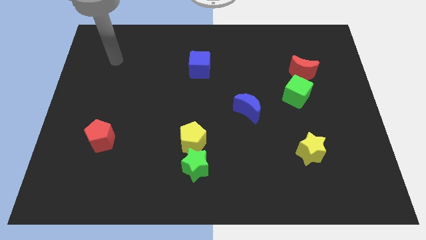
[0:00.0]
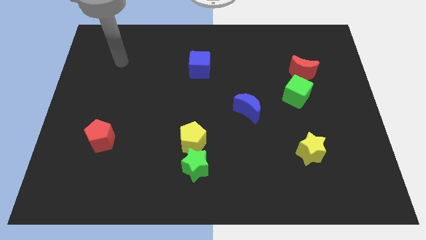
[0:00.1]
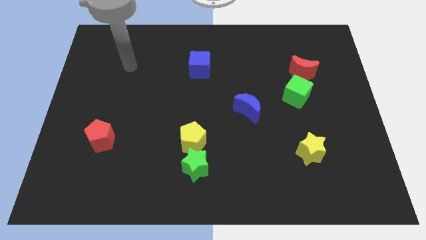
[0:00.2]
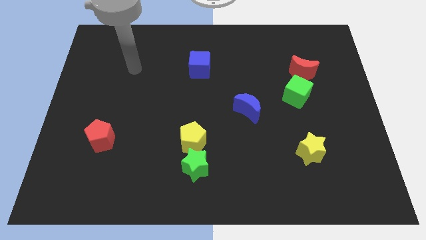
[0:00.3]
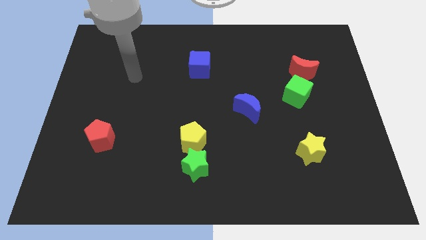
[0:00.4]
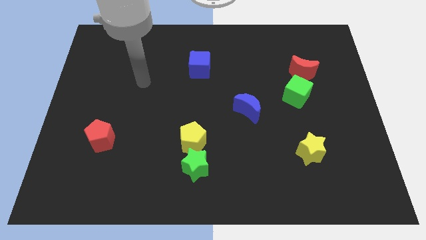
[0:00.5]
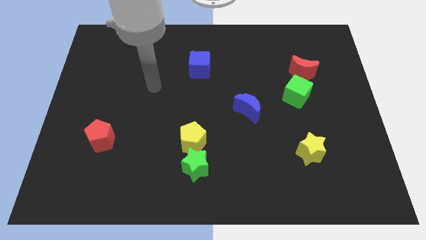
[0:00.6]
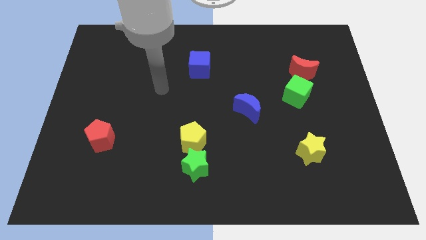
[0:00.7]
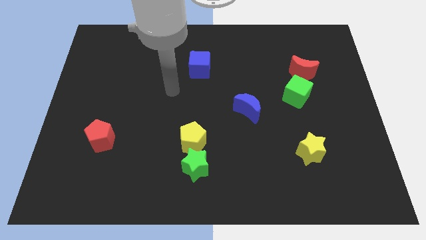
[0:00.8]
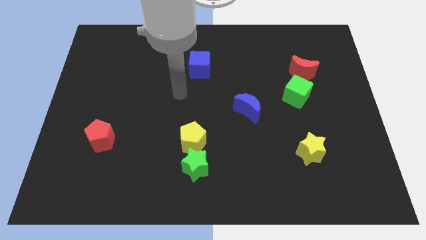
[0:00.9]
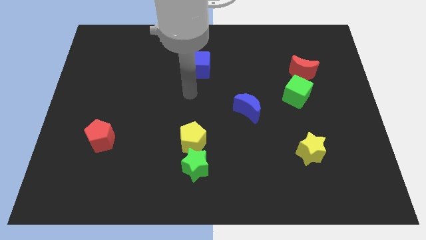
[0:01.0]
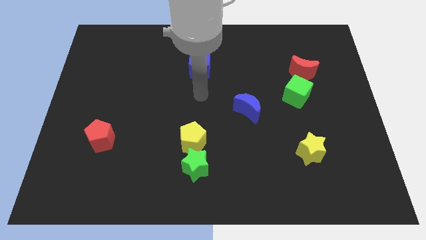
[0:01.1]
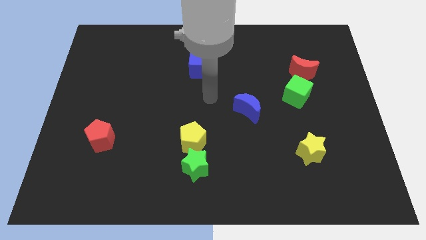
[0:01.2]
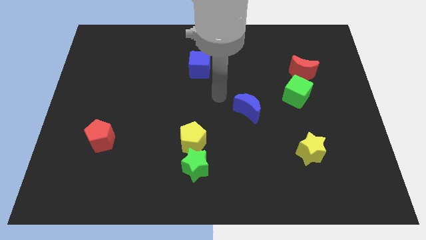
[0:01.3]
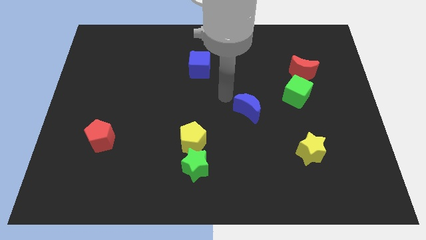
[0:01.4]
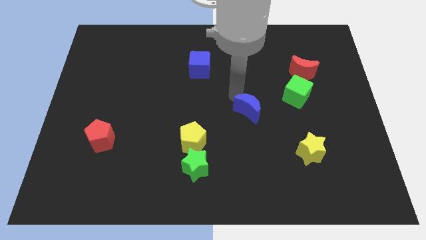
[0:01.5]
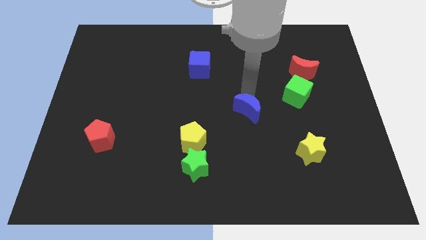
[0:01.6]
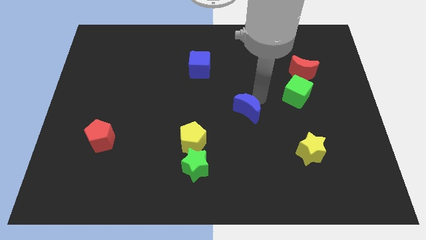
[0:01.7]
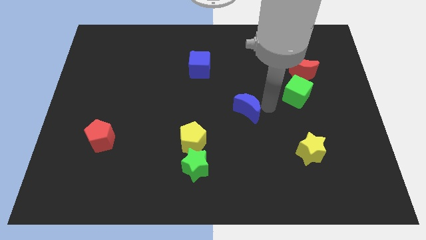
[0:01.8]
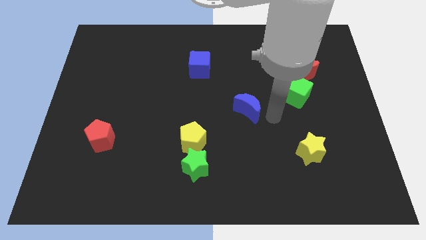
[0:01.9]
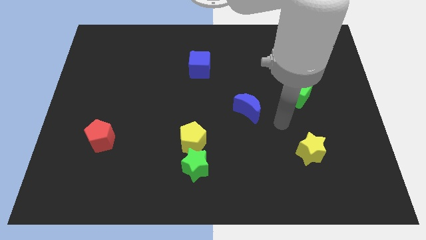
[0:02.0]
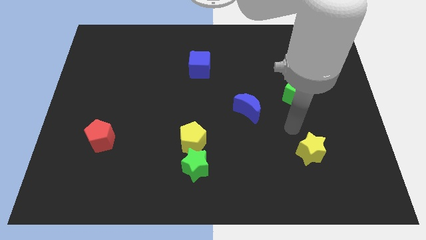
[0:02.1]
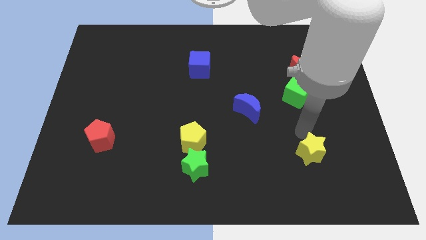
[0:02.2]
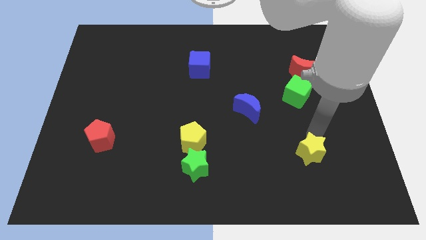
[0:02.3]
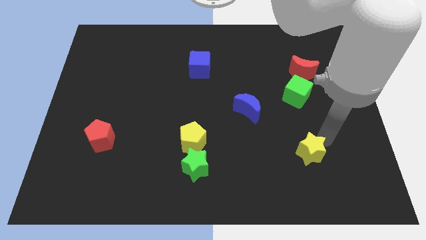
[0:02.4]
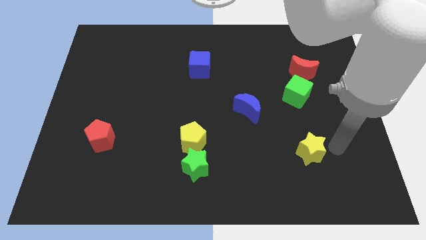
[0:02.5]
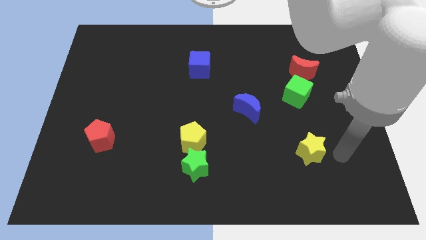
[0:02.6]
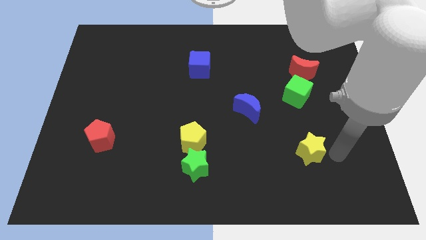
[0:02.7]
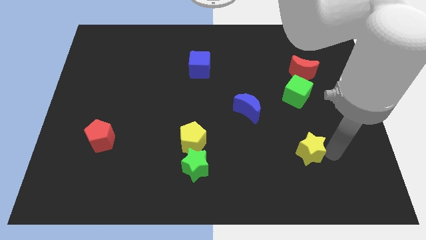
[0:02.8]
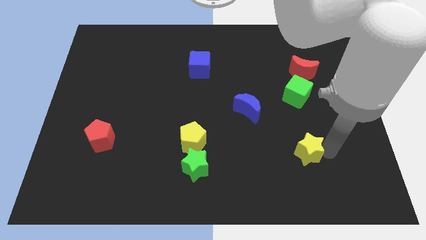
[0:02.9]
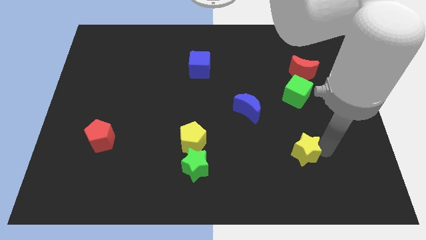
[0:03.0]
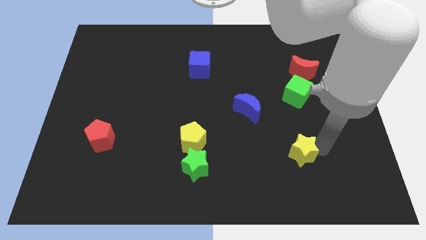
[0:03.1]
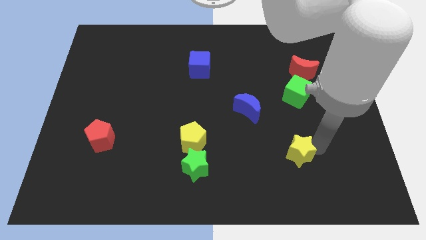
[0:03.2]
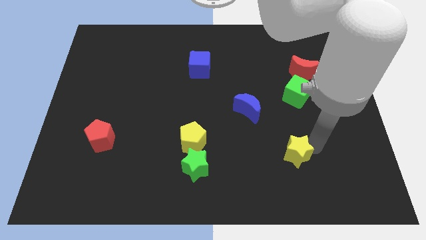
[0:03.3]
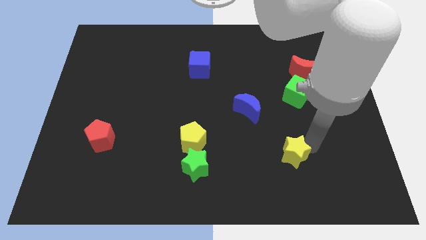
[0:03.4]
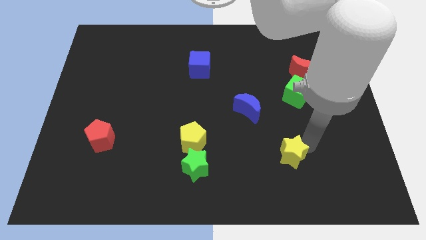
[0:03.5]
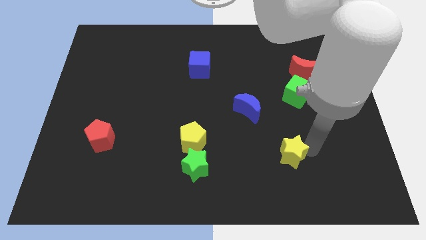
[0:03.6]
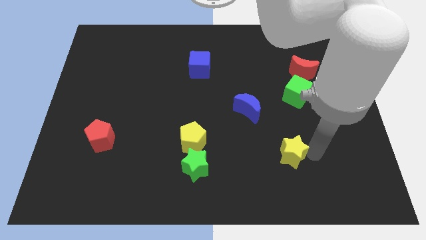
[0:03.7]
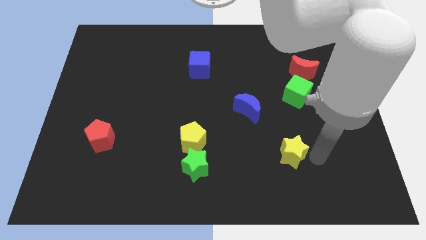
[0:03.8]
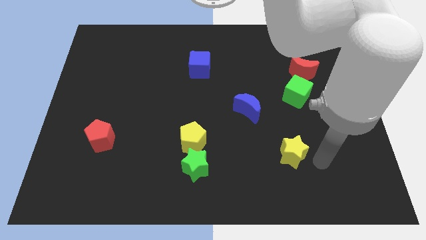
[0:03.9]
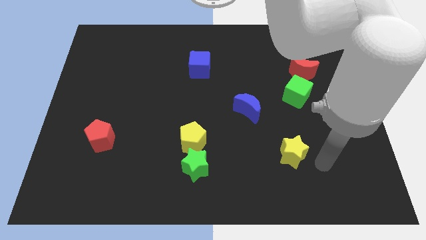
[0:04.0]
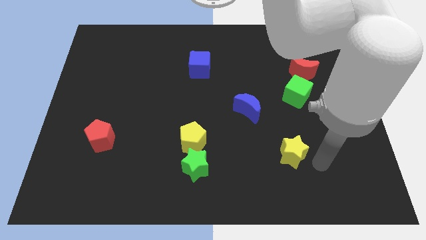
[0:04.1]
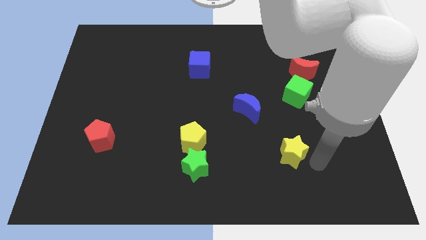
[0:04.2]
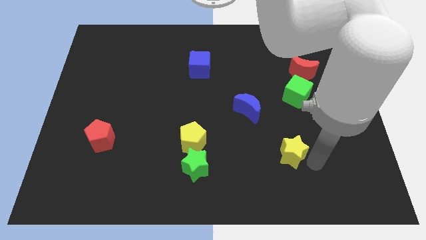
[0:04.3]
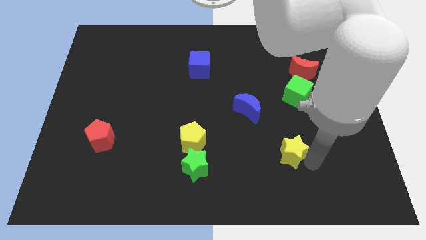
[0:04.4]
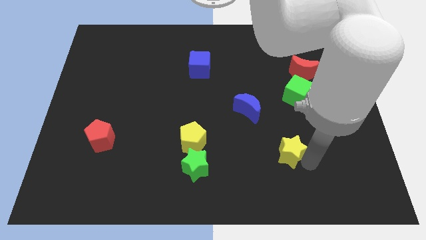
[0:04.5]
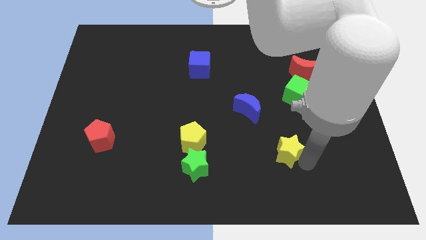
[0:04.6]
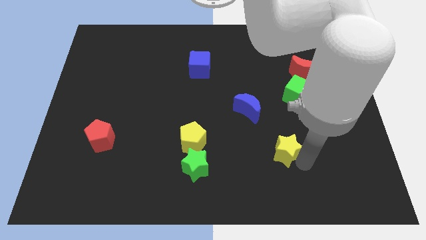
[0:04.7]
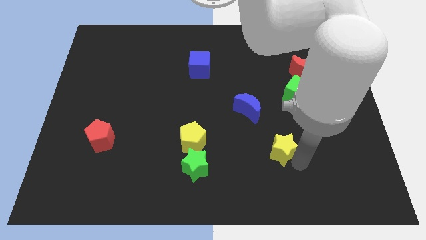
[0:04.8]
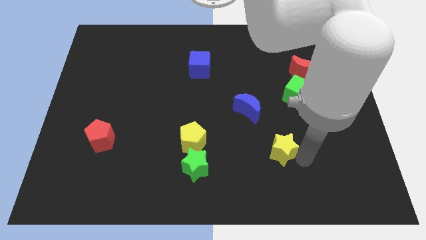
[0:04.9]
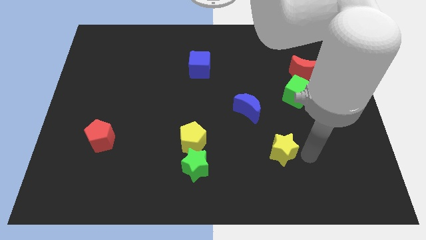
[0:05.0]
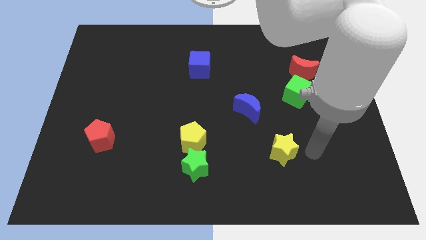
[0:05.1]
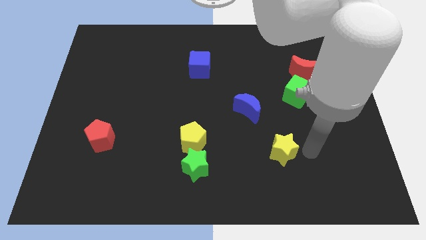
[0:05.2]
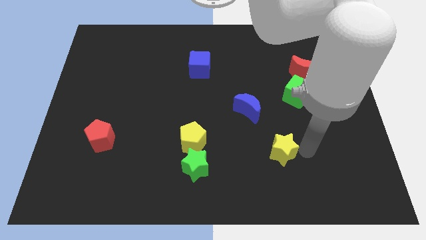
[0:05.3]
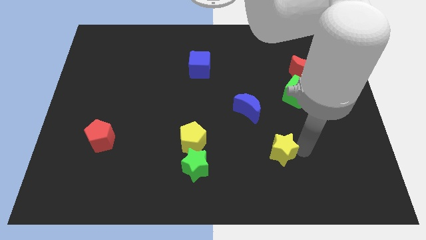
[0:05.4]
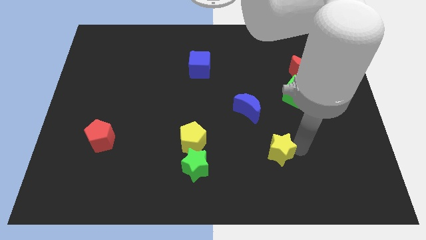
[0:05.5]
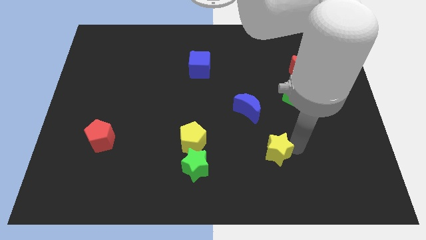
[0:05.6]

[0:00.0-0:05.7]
push the yellow star left slightly

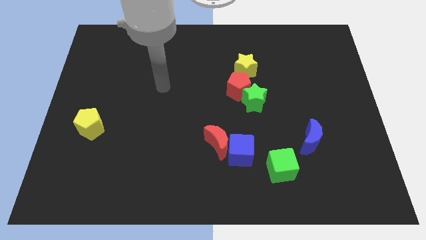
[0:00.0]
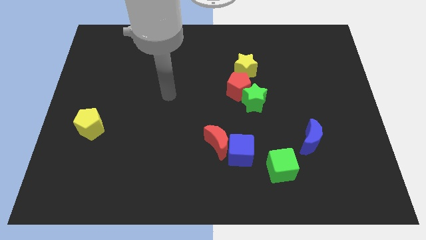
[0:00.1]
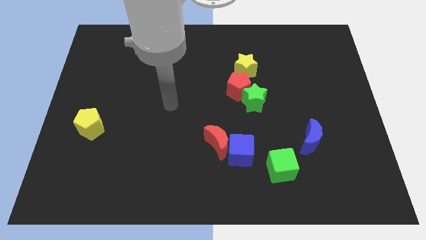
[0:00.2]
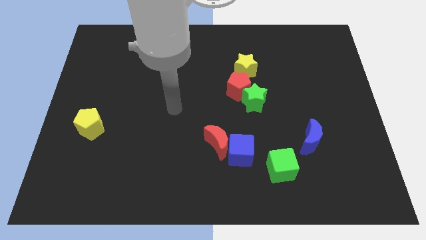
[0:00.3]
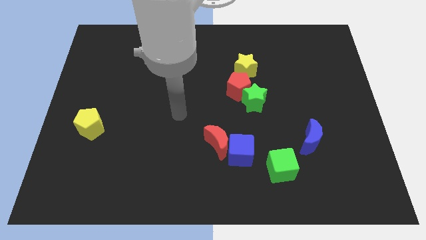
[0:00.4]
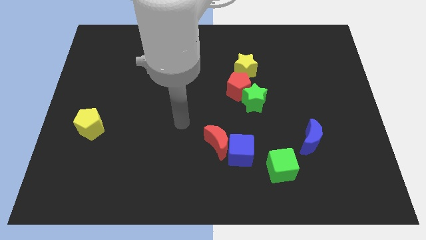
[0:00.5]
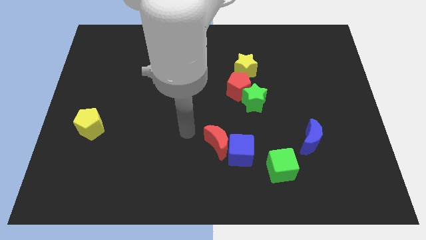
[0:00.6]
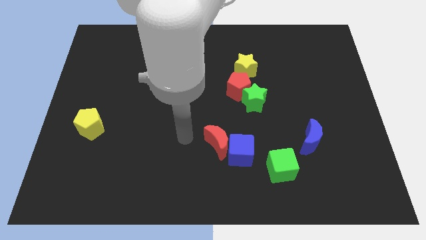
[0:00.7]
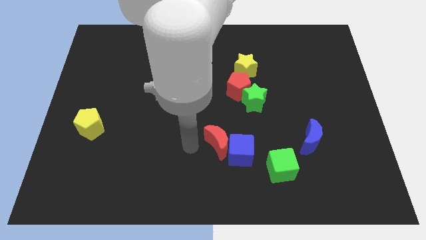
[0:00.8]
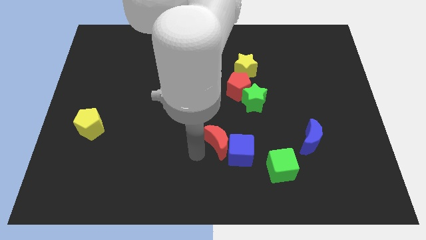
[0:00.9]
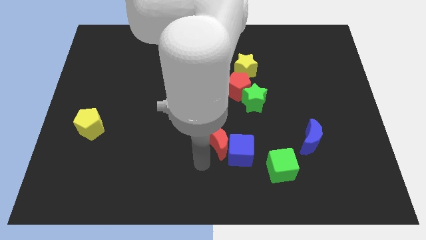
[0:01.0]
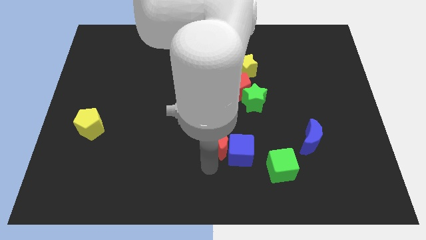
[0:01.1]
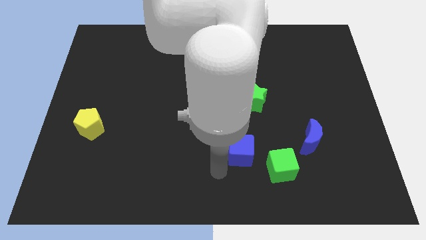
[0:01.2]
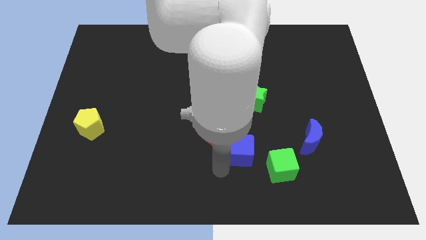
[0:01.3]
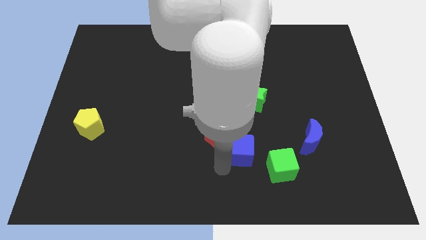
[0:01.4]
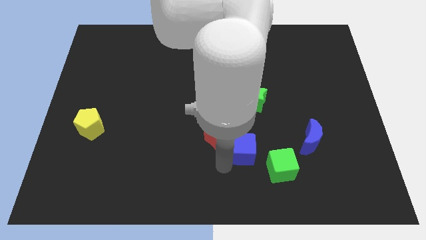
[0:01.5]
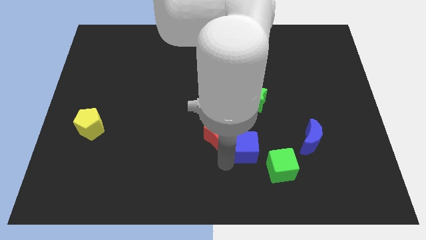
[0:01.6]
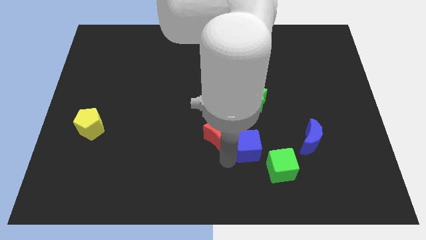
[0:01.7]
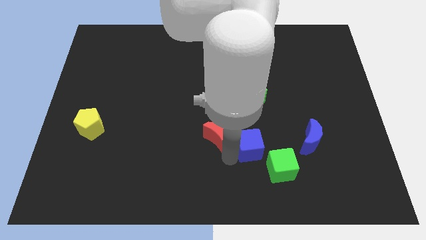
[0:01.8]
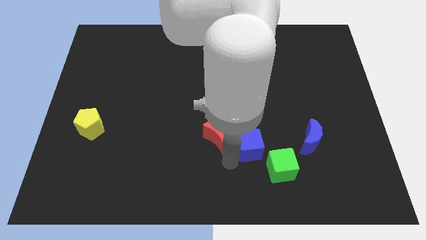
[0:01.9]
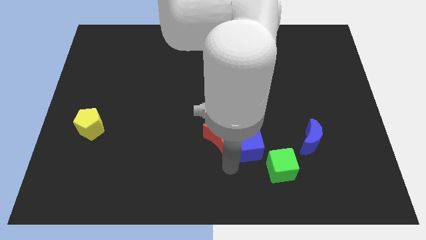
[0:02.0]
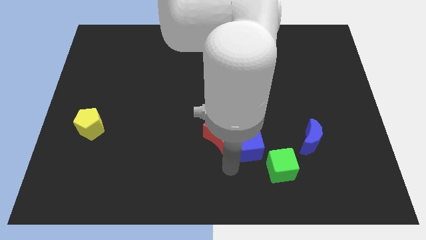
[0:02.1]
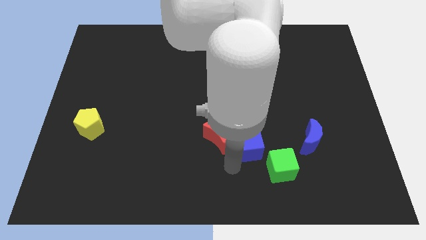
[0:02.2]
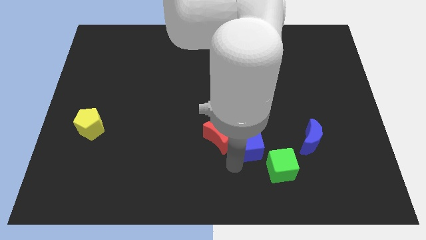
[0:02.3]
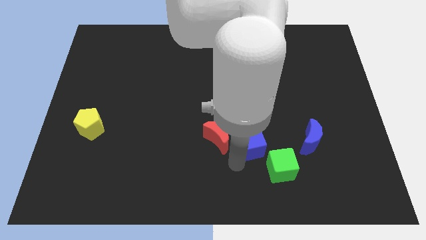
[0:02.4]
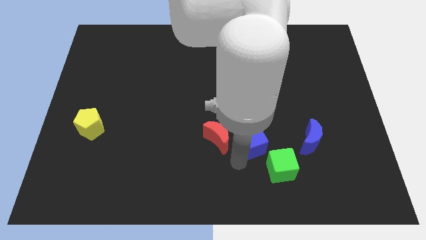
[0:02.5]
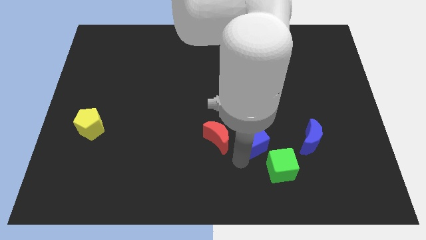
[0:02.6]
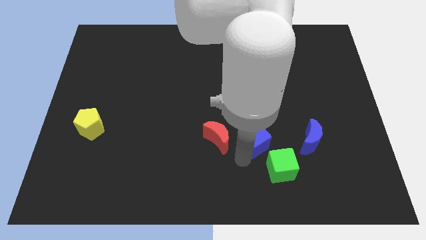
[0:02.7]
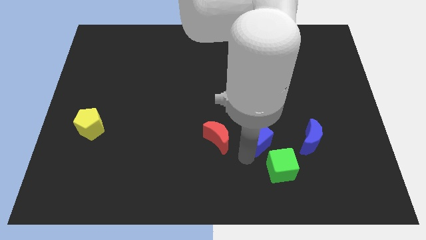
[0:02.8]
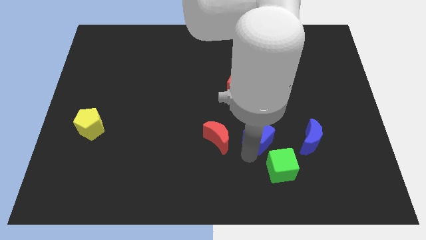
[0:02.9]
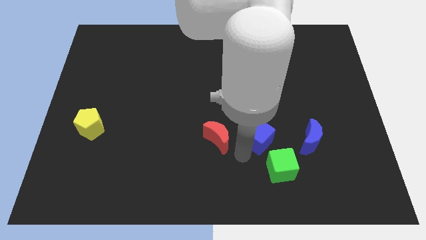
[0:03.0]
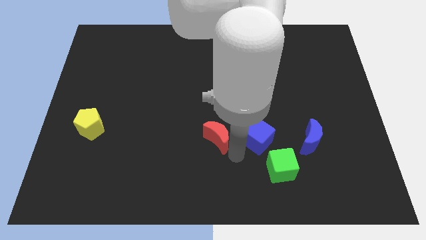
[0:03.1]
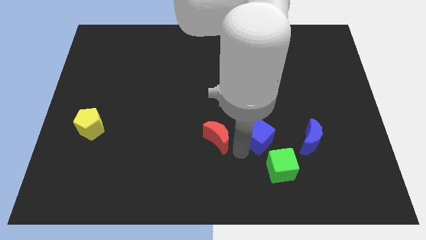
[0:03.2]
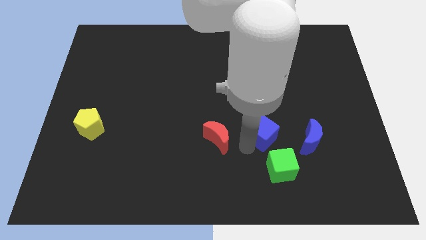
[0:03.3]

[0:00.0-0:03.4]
move the blue cube a little bit up and to the right diagonally
